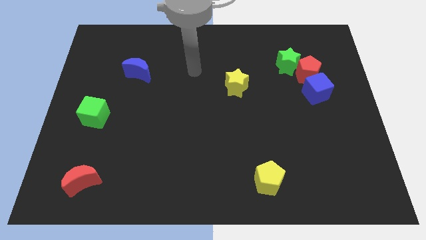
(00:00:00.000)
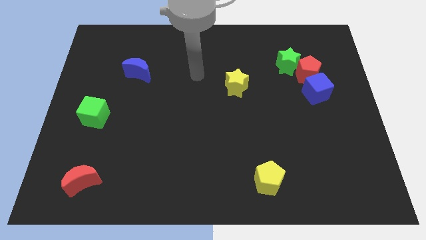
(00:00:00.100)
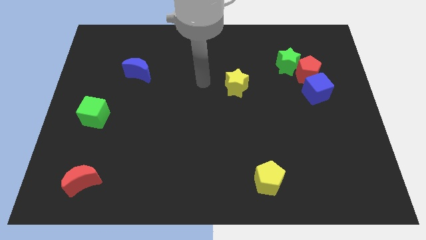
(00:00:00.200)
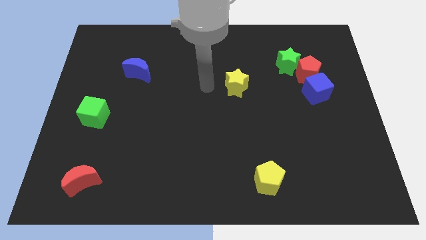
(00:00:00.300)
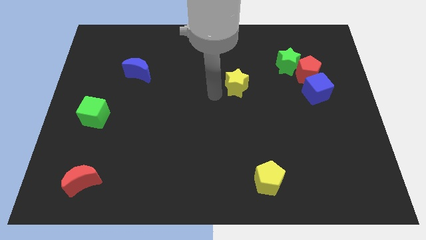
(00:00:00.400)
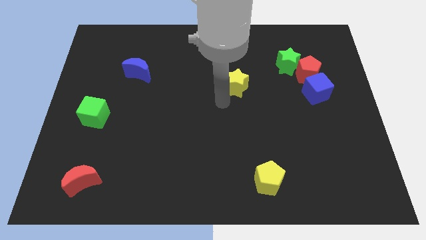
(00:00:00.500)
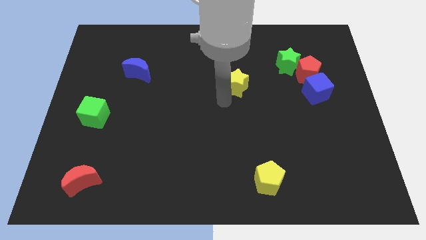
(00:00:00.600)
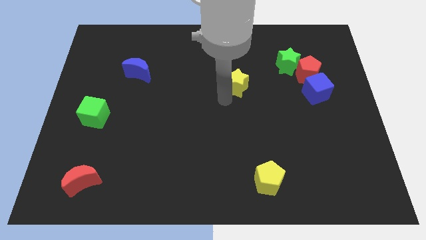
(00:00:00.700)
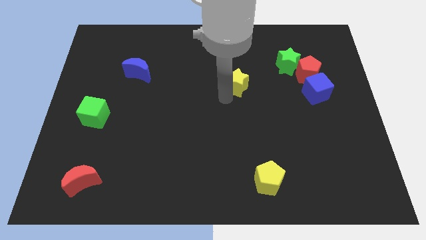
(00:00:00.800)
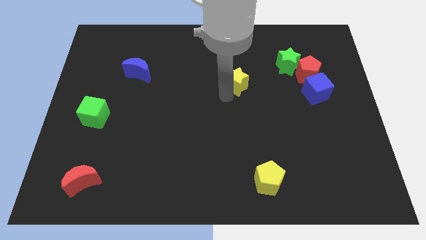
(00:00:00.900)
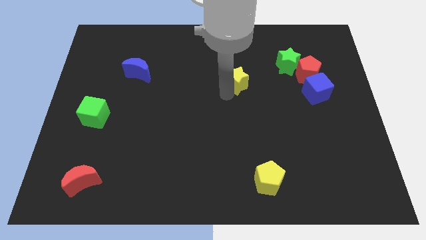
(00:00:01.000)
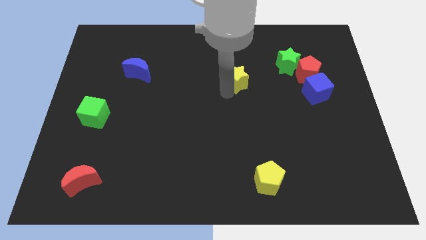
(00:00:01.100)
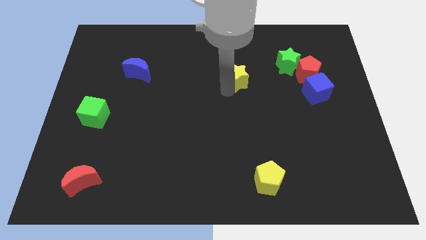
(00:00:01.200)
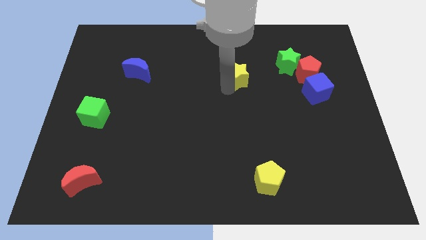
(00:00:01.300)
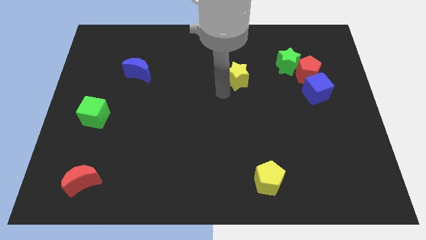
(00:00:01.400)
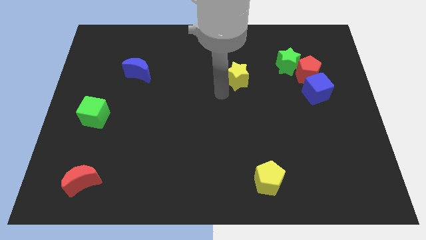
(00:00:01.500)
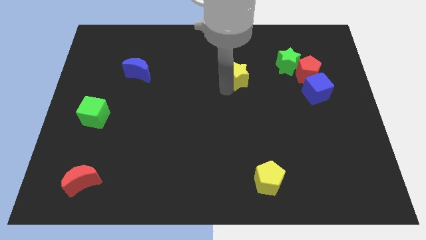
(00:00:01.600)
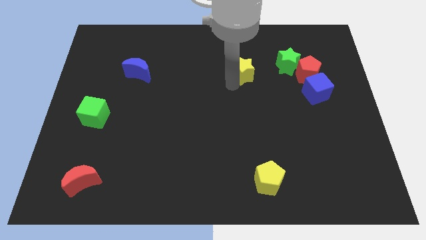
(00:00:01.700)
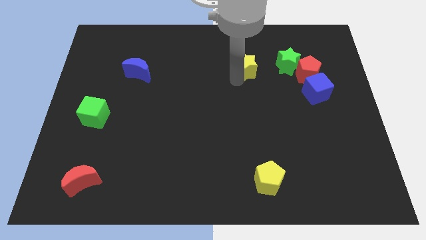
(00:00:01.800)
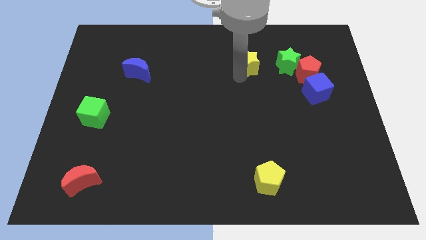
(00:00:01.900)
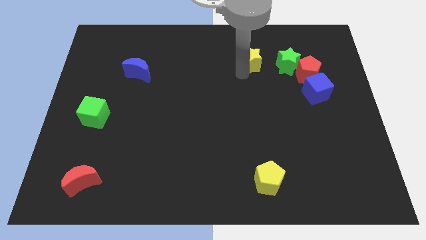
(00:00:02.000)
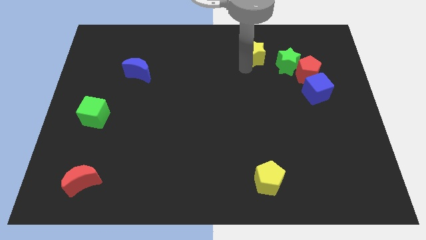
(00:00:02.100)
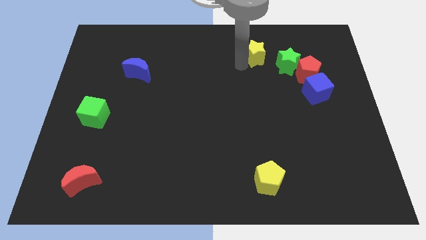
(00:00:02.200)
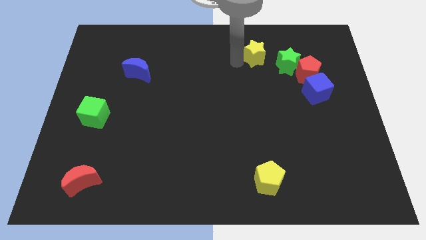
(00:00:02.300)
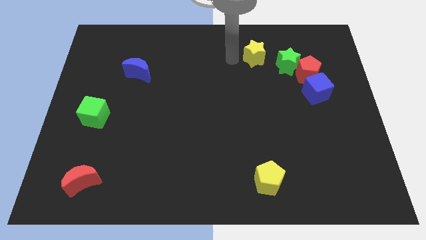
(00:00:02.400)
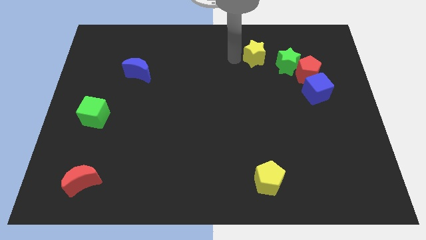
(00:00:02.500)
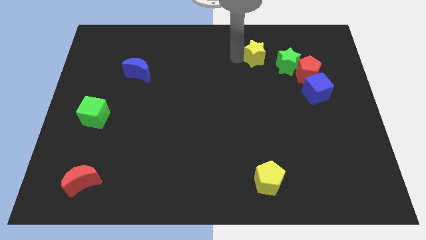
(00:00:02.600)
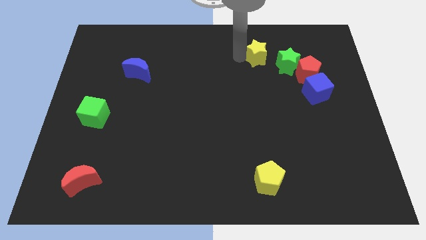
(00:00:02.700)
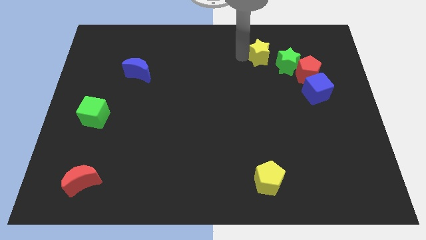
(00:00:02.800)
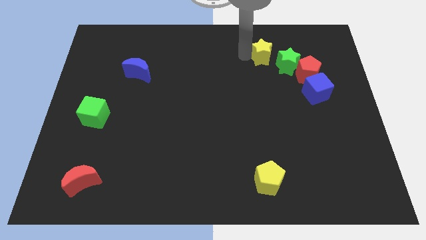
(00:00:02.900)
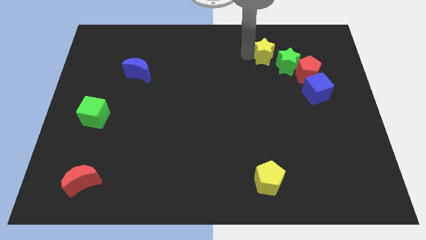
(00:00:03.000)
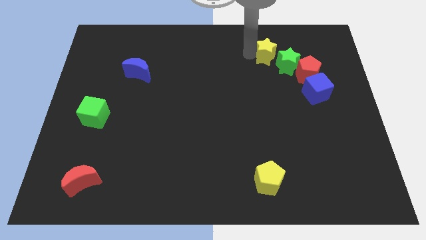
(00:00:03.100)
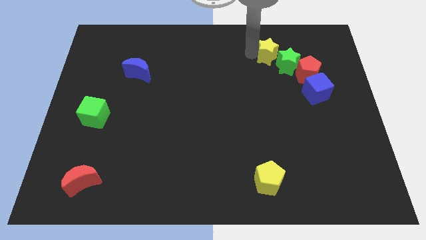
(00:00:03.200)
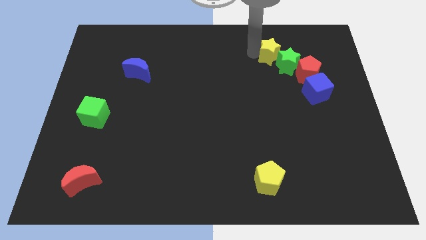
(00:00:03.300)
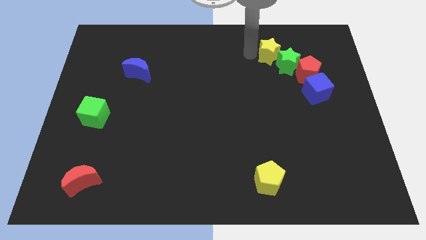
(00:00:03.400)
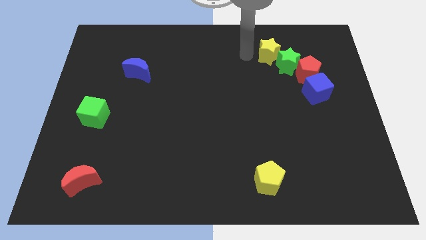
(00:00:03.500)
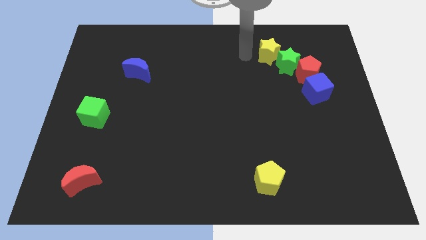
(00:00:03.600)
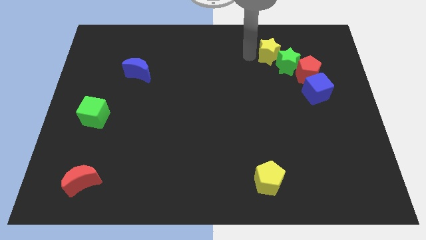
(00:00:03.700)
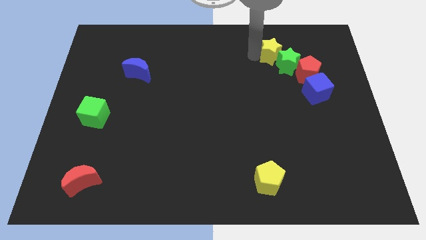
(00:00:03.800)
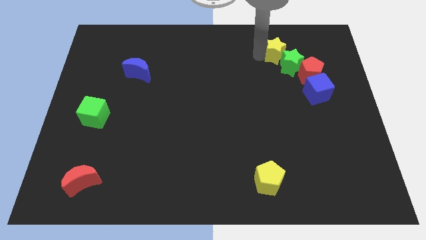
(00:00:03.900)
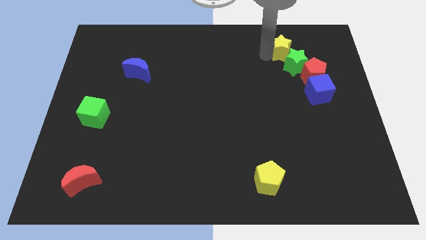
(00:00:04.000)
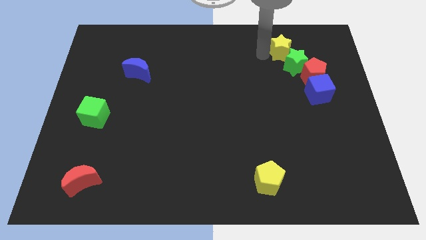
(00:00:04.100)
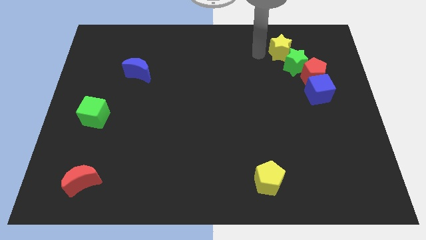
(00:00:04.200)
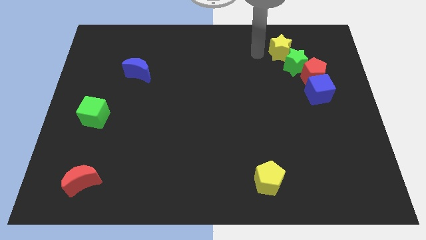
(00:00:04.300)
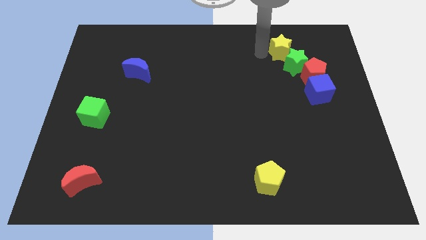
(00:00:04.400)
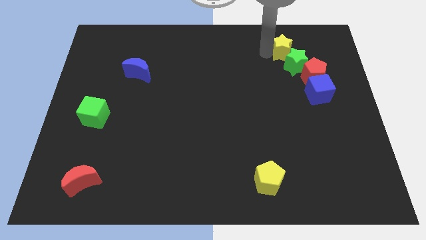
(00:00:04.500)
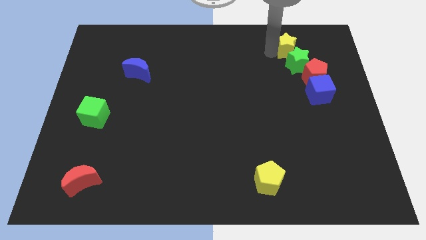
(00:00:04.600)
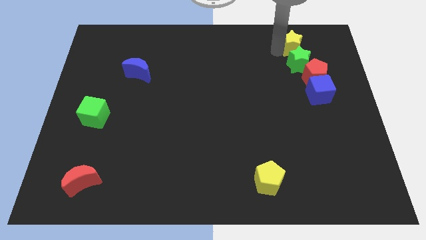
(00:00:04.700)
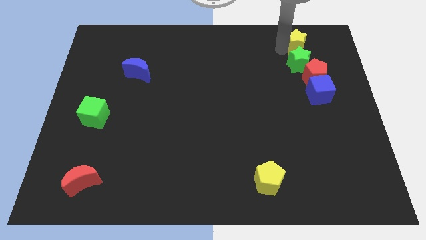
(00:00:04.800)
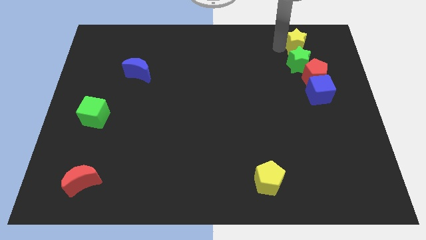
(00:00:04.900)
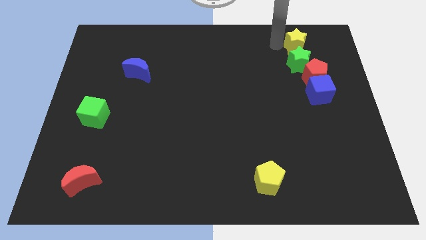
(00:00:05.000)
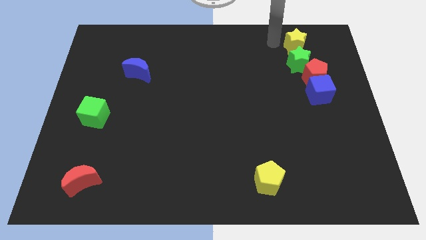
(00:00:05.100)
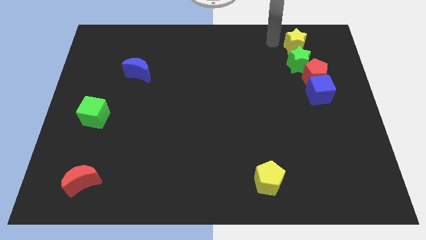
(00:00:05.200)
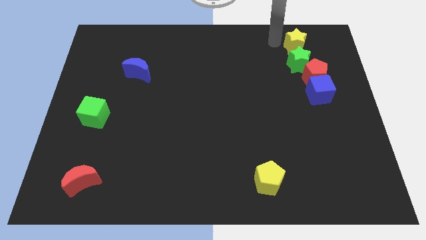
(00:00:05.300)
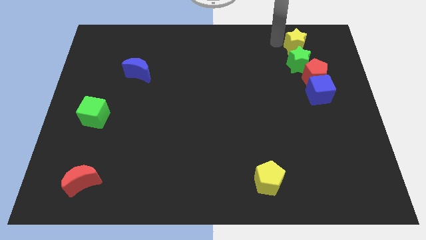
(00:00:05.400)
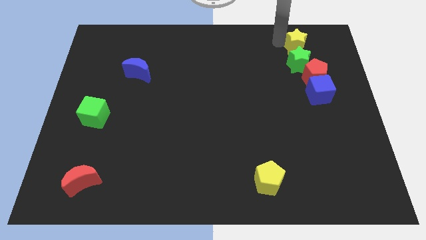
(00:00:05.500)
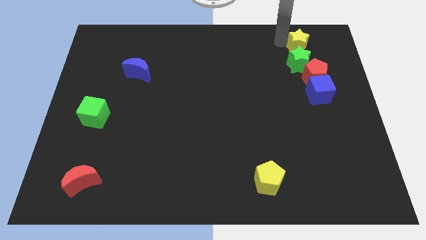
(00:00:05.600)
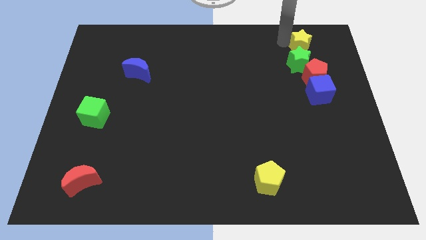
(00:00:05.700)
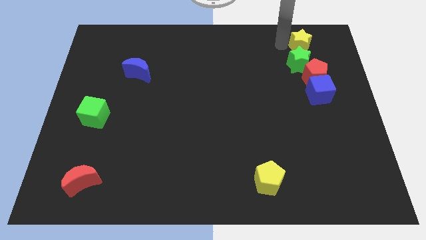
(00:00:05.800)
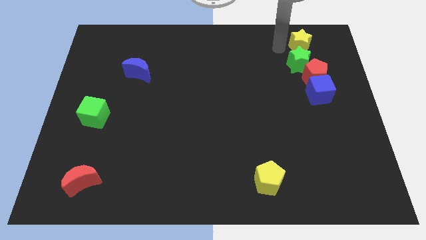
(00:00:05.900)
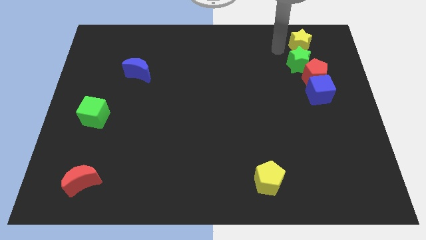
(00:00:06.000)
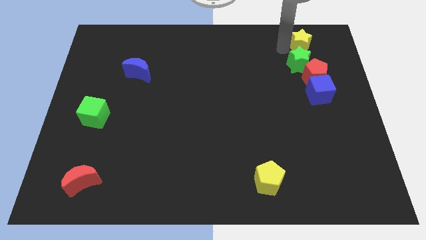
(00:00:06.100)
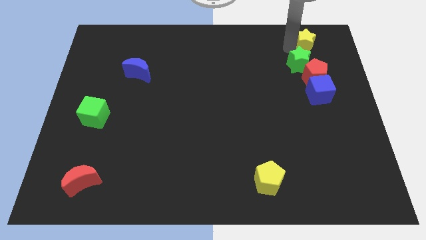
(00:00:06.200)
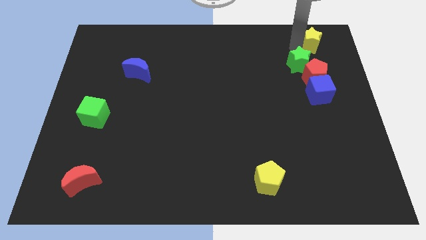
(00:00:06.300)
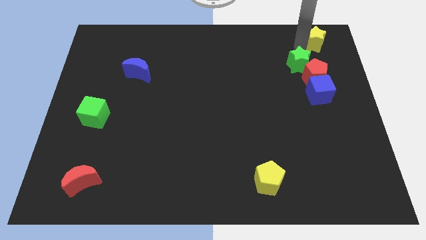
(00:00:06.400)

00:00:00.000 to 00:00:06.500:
push the yellow star to the top right

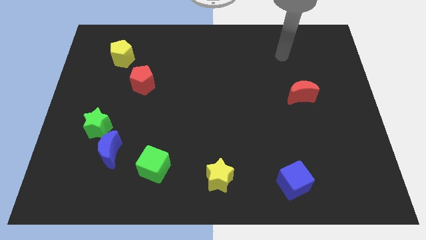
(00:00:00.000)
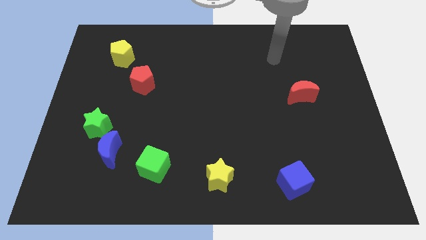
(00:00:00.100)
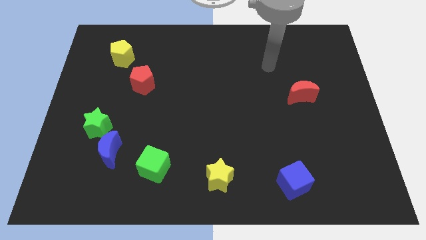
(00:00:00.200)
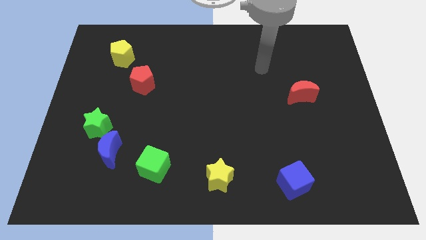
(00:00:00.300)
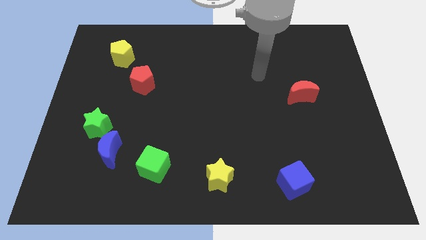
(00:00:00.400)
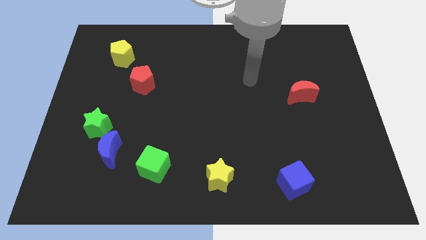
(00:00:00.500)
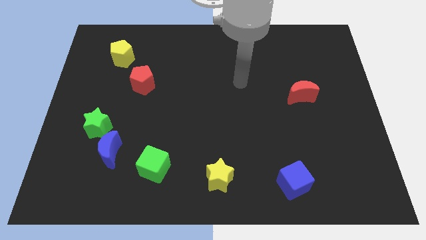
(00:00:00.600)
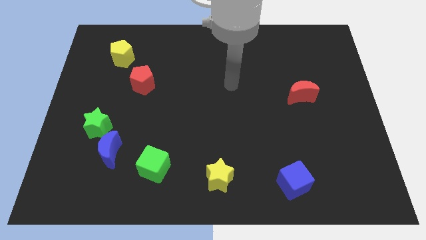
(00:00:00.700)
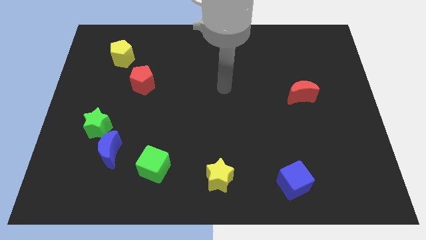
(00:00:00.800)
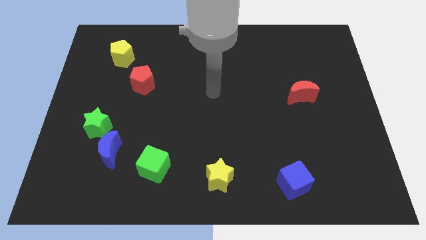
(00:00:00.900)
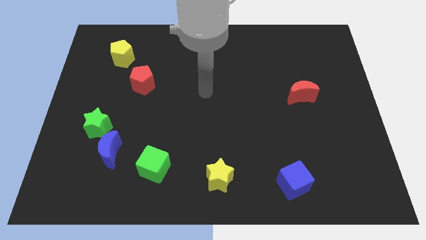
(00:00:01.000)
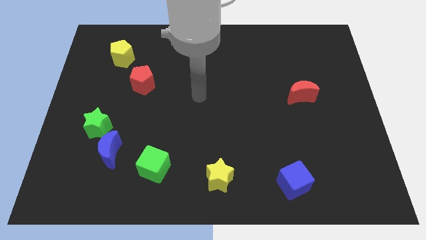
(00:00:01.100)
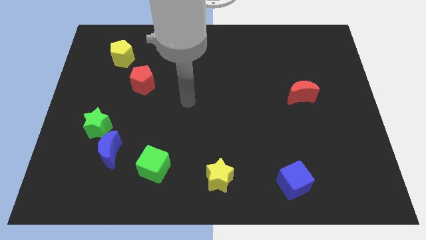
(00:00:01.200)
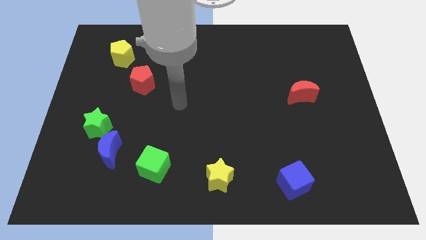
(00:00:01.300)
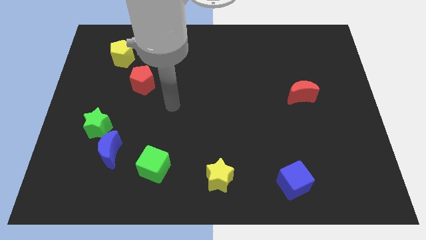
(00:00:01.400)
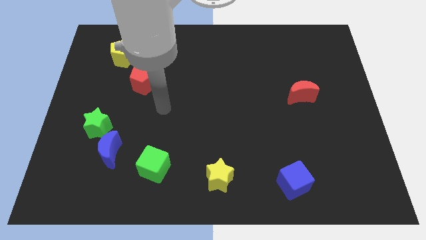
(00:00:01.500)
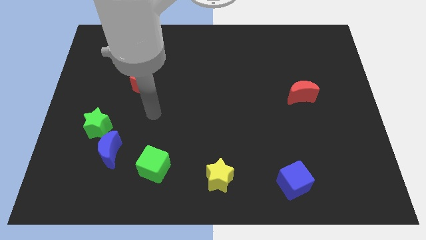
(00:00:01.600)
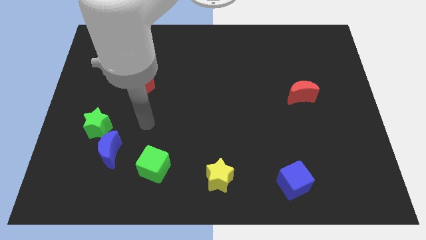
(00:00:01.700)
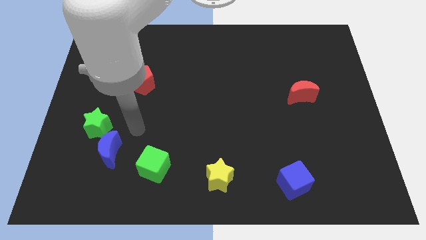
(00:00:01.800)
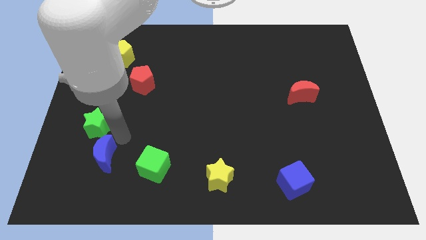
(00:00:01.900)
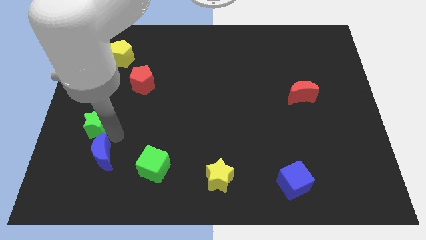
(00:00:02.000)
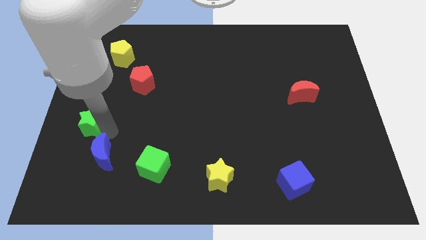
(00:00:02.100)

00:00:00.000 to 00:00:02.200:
move the green star to the left side
